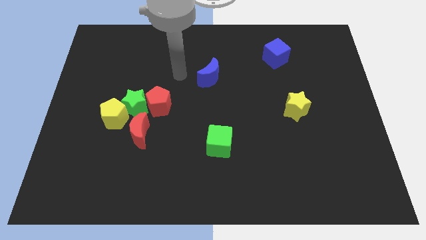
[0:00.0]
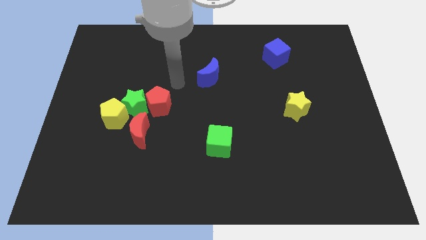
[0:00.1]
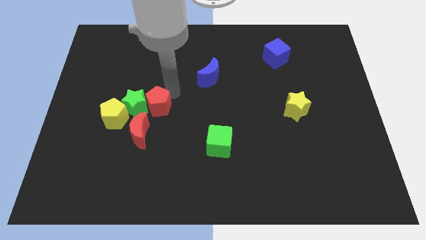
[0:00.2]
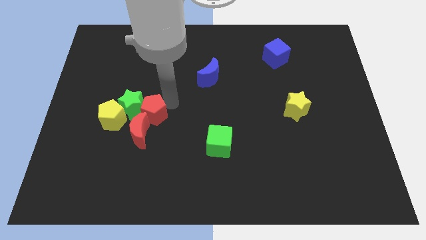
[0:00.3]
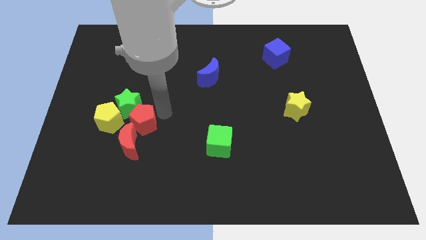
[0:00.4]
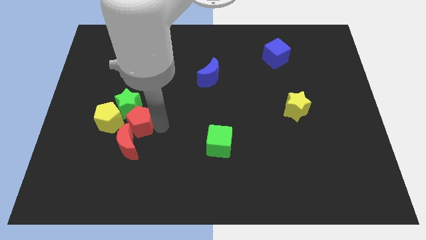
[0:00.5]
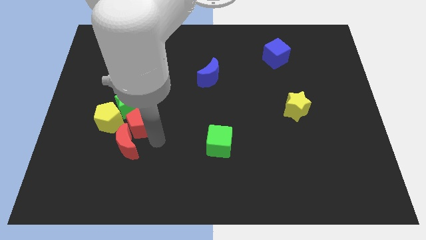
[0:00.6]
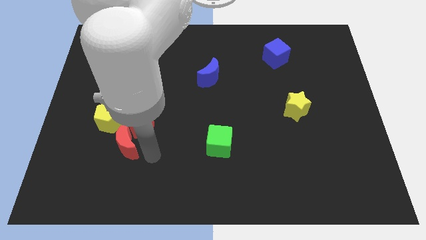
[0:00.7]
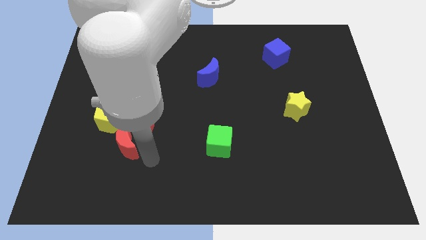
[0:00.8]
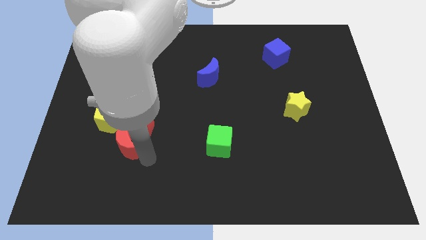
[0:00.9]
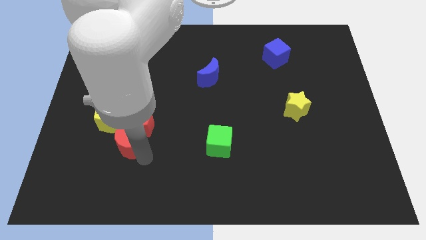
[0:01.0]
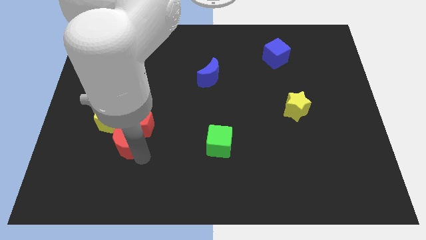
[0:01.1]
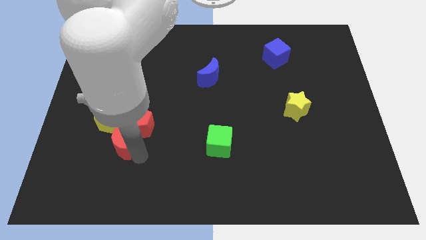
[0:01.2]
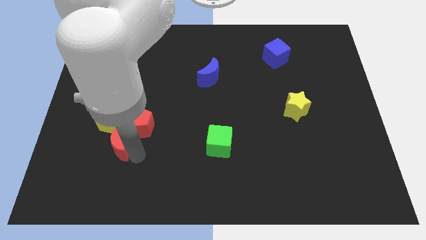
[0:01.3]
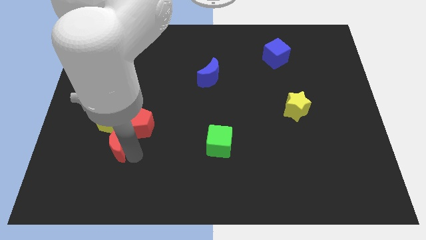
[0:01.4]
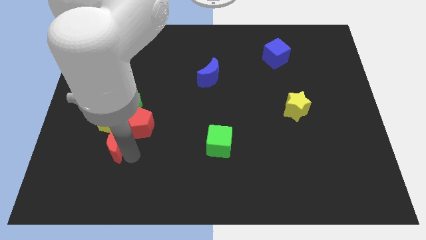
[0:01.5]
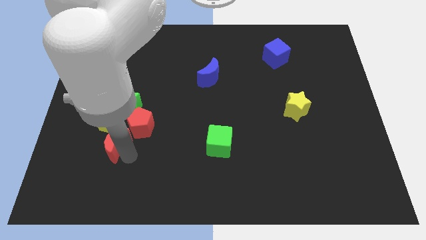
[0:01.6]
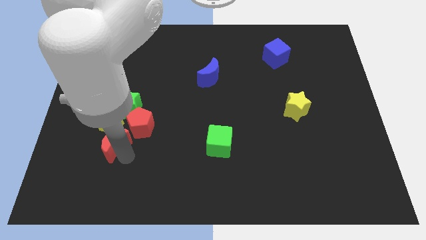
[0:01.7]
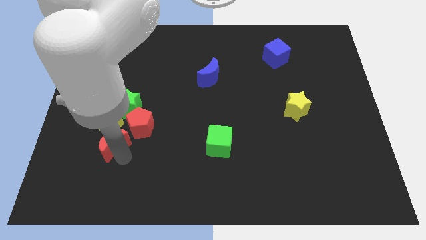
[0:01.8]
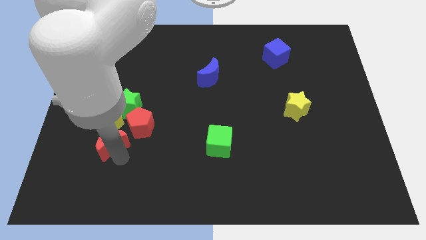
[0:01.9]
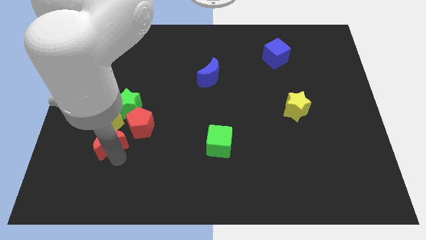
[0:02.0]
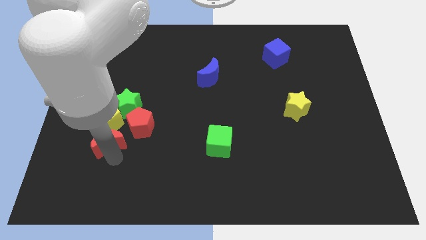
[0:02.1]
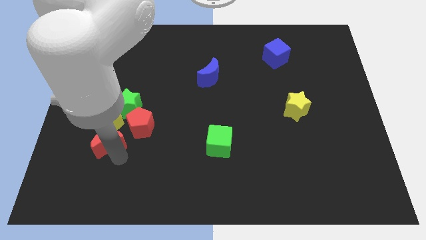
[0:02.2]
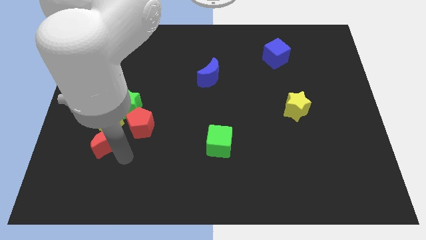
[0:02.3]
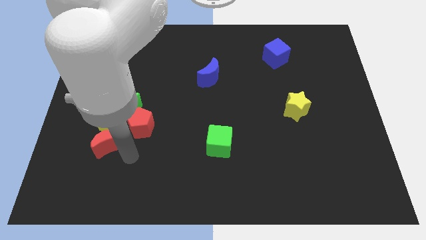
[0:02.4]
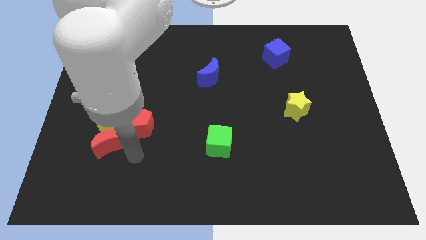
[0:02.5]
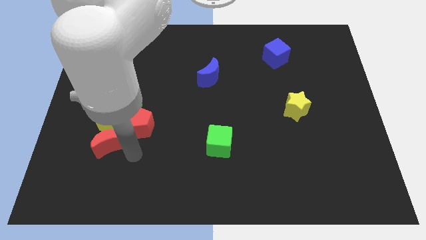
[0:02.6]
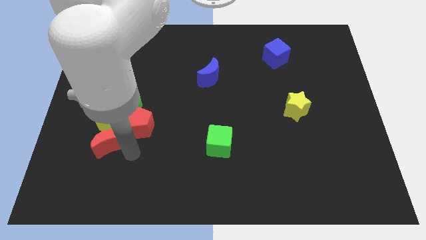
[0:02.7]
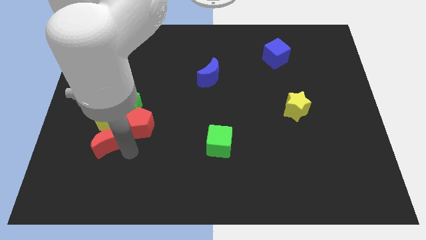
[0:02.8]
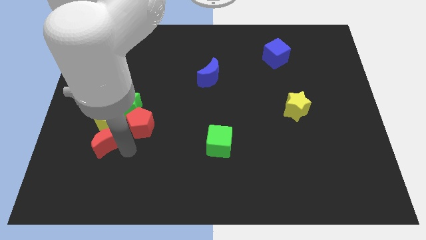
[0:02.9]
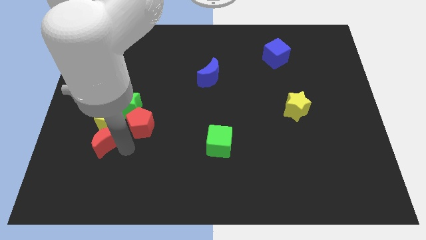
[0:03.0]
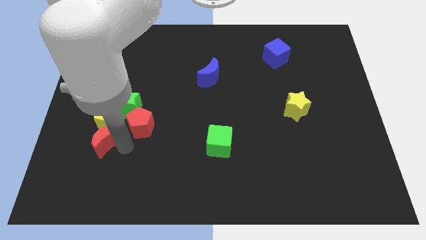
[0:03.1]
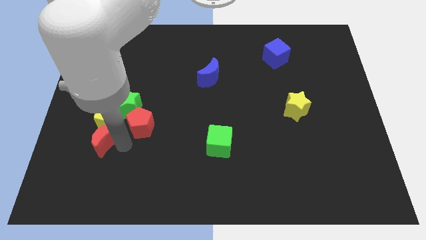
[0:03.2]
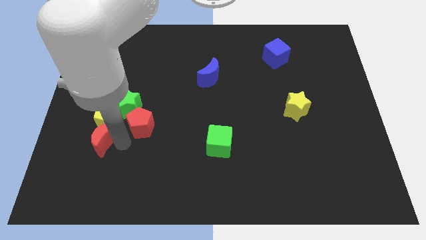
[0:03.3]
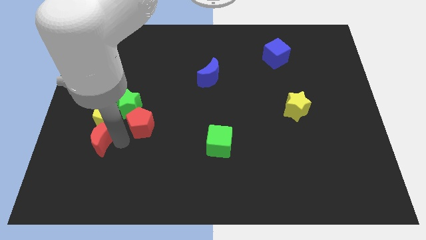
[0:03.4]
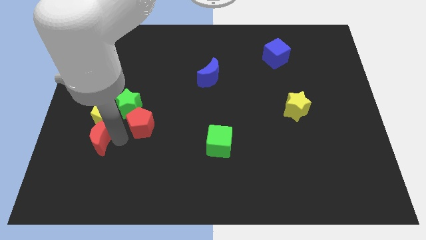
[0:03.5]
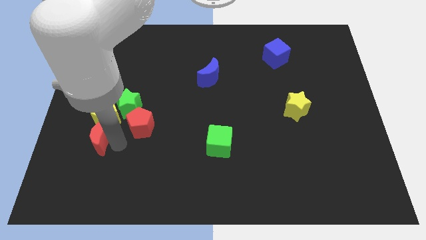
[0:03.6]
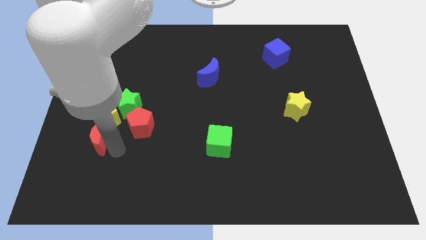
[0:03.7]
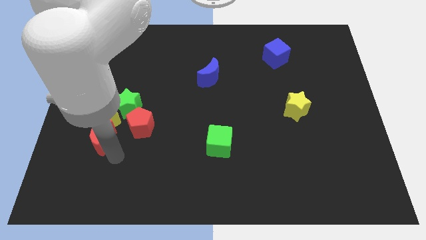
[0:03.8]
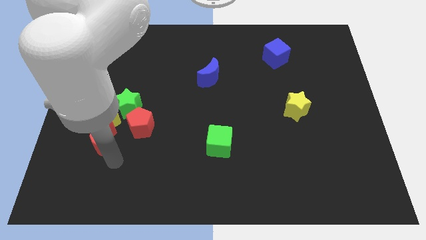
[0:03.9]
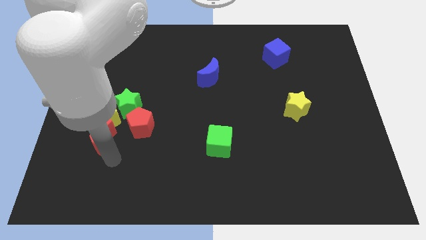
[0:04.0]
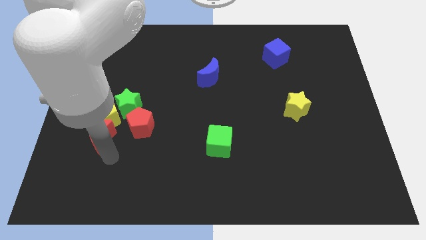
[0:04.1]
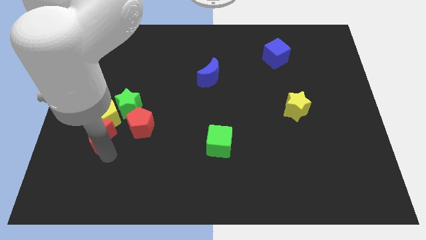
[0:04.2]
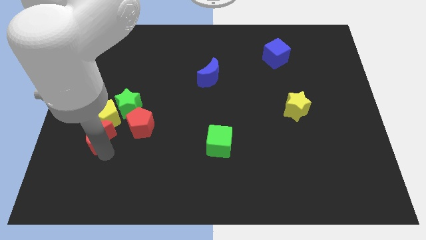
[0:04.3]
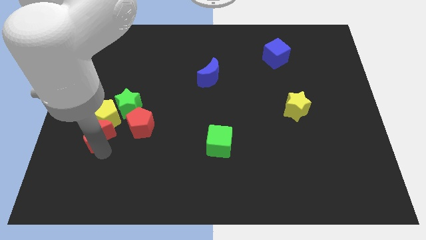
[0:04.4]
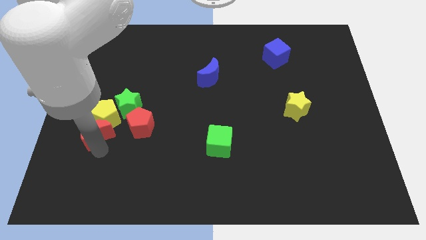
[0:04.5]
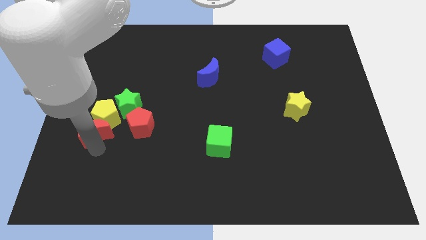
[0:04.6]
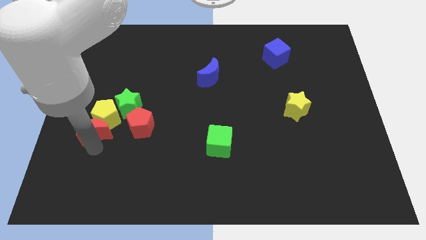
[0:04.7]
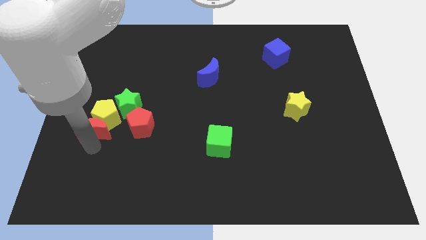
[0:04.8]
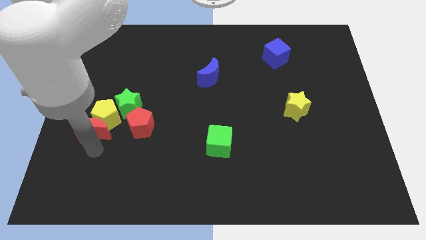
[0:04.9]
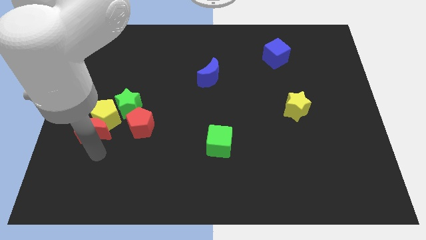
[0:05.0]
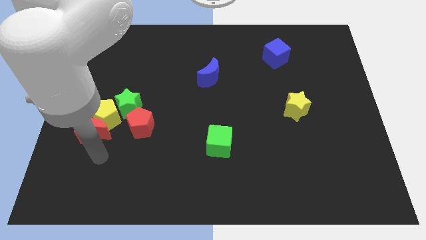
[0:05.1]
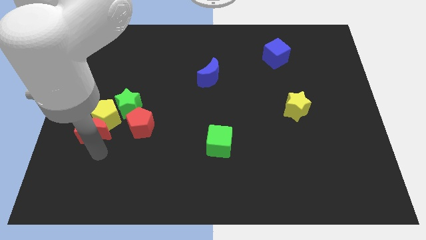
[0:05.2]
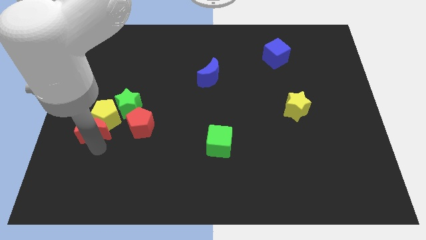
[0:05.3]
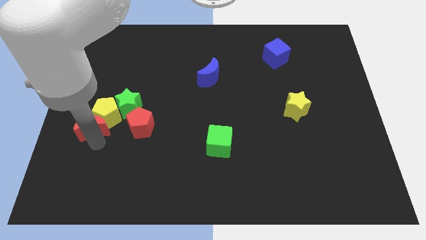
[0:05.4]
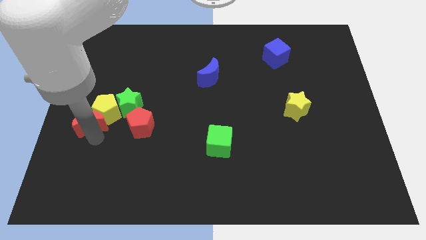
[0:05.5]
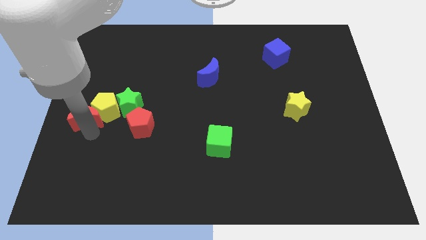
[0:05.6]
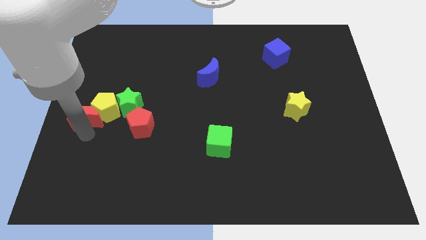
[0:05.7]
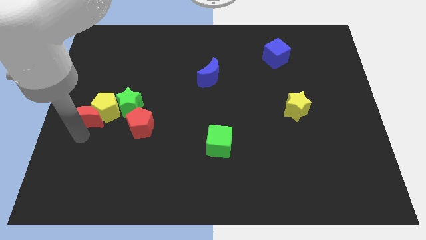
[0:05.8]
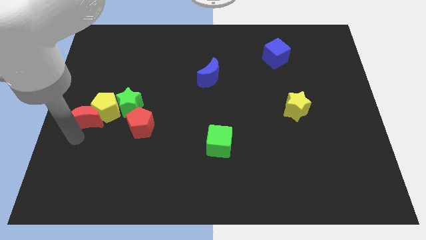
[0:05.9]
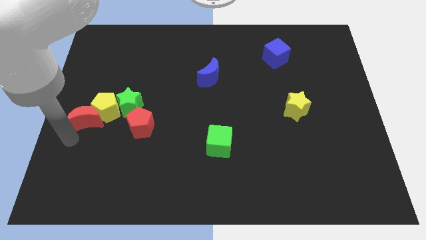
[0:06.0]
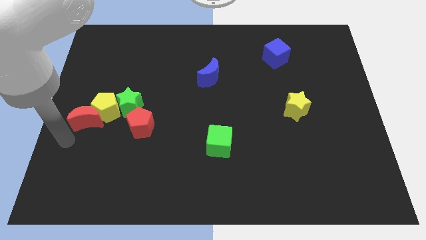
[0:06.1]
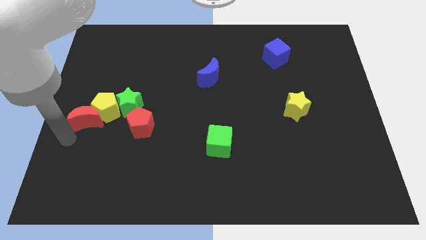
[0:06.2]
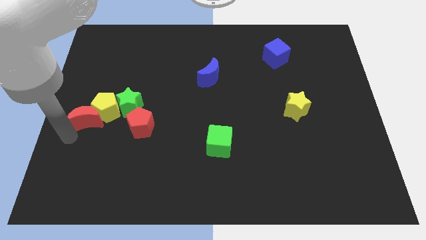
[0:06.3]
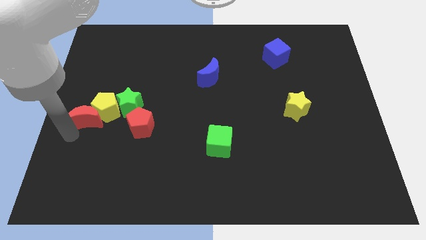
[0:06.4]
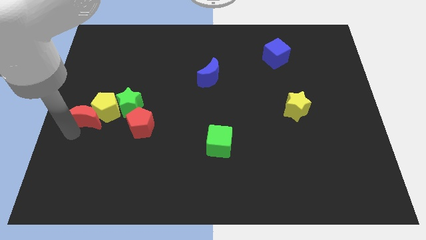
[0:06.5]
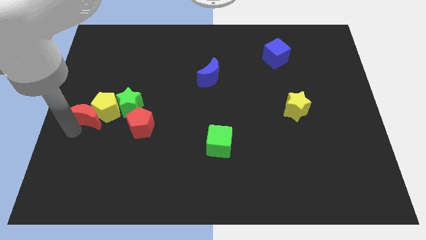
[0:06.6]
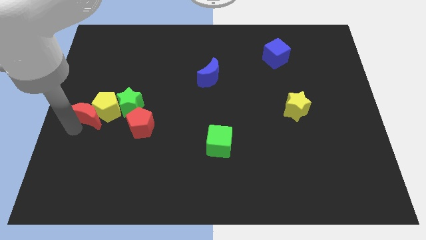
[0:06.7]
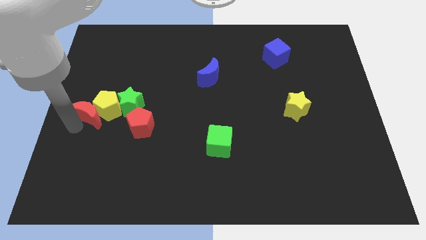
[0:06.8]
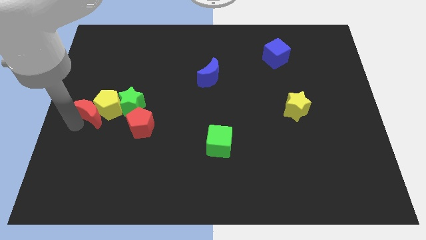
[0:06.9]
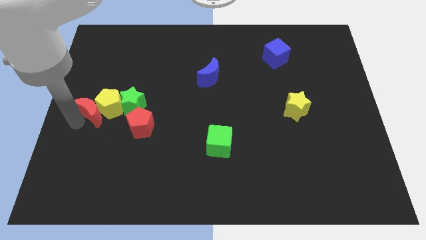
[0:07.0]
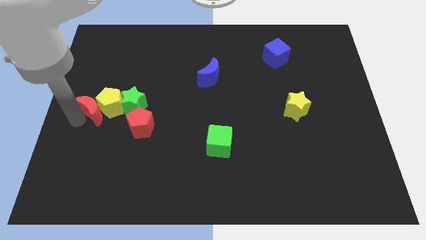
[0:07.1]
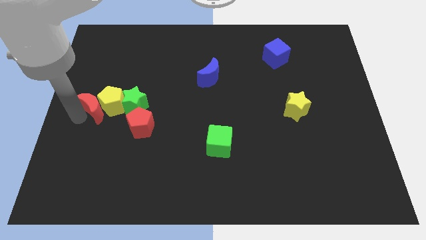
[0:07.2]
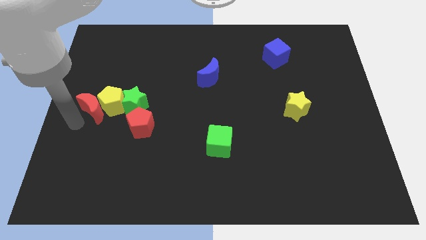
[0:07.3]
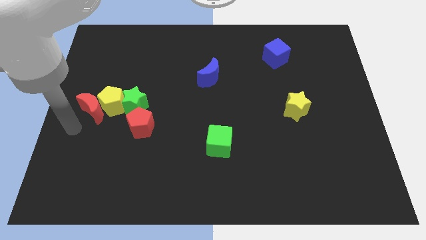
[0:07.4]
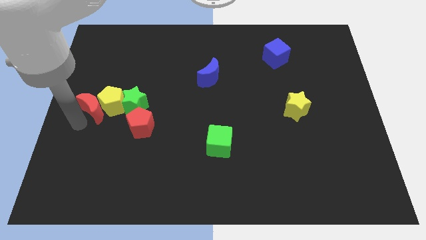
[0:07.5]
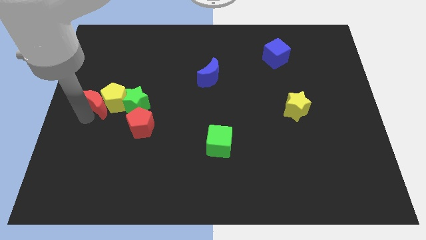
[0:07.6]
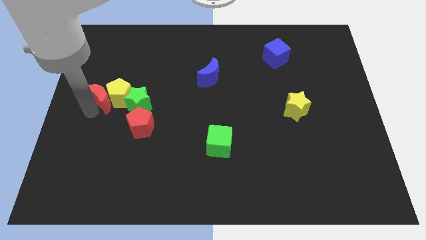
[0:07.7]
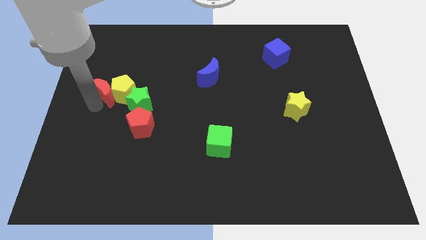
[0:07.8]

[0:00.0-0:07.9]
put the red moon to the top left of the green star
